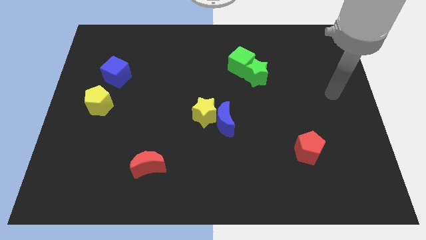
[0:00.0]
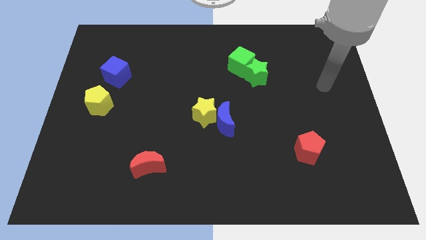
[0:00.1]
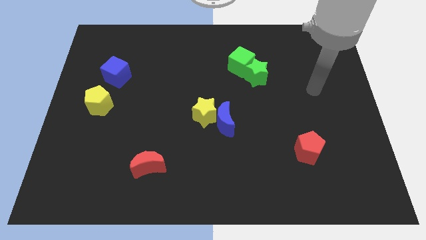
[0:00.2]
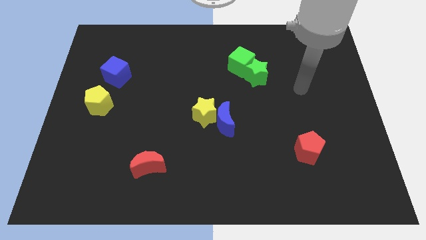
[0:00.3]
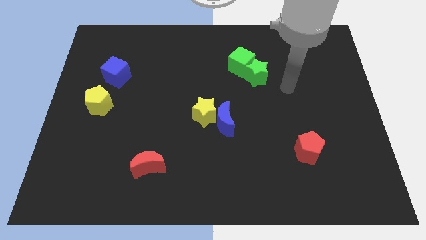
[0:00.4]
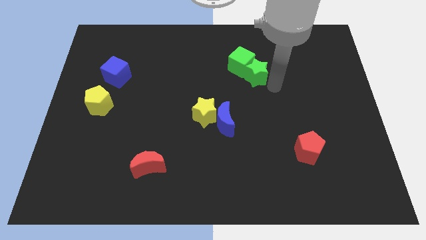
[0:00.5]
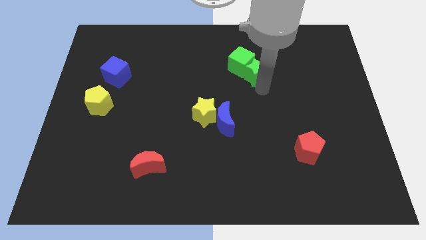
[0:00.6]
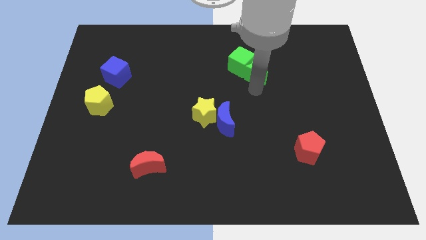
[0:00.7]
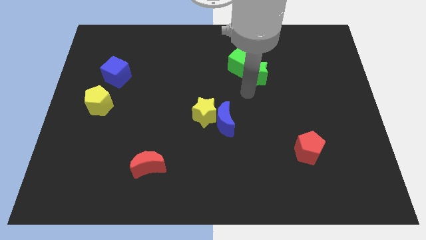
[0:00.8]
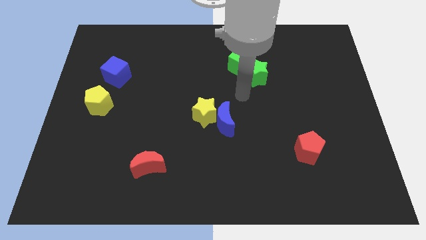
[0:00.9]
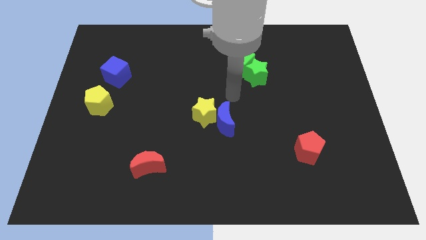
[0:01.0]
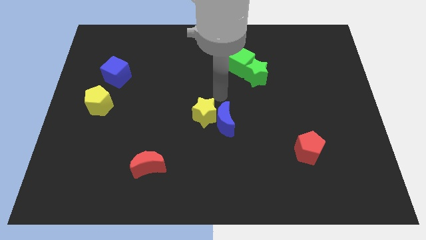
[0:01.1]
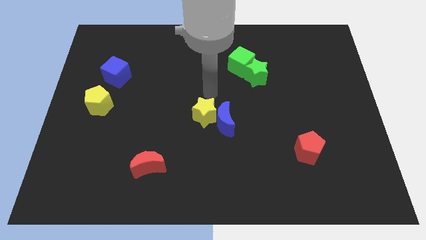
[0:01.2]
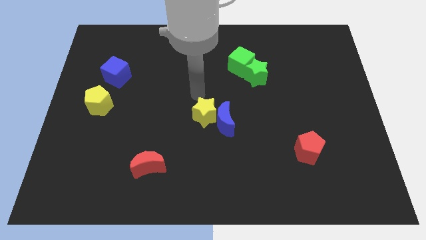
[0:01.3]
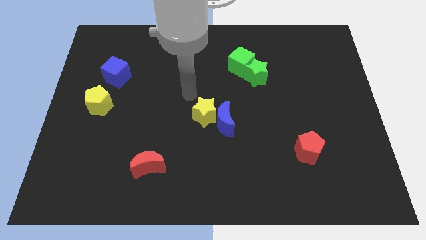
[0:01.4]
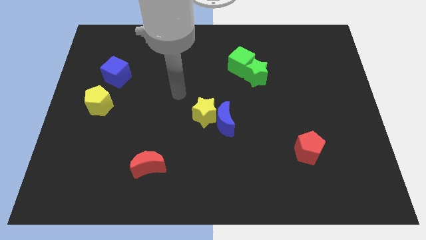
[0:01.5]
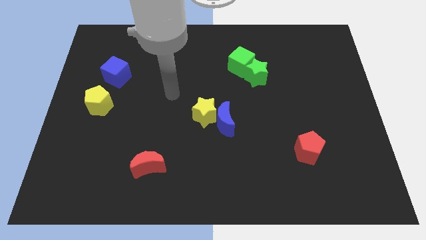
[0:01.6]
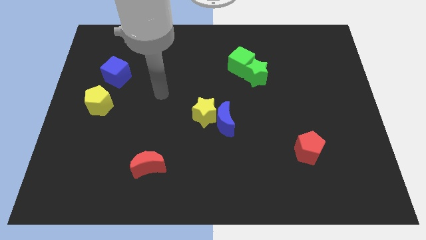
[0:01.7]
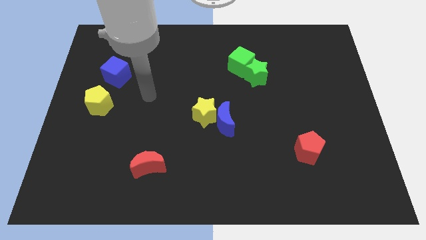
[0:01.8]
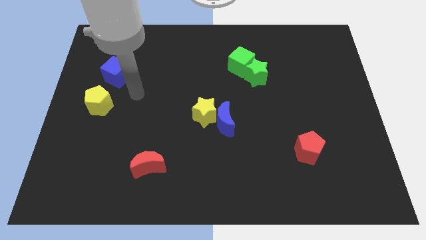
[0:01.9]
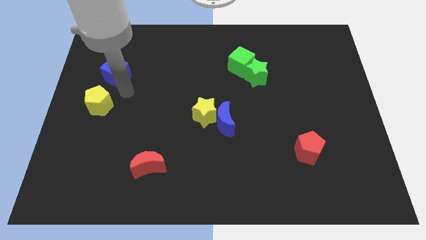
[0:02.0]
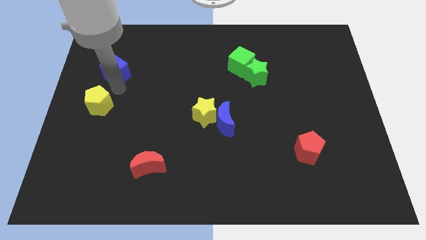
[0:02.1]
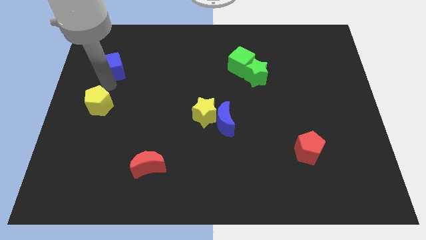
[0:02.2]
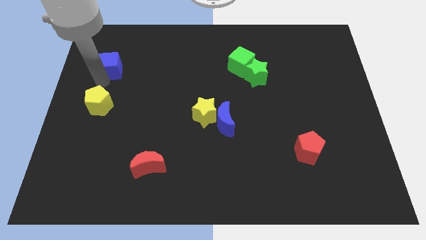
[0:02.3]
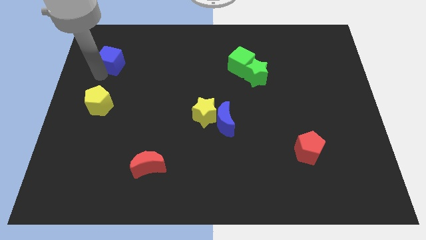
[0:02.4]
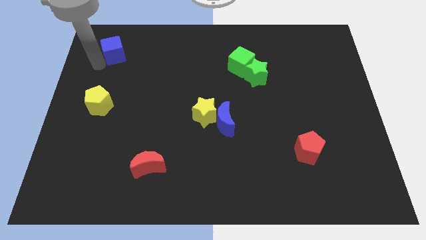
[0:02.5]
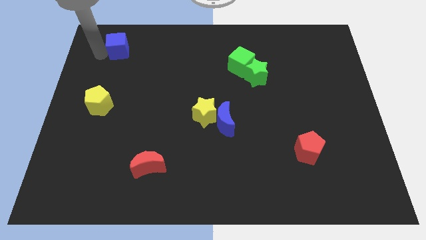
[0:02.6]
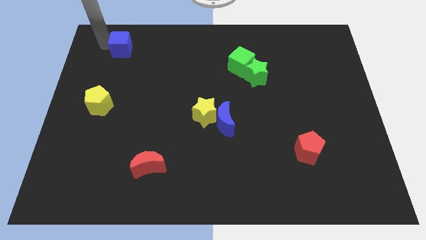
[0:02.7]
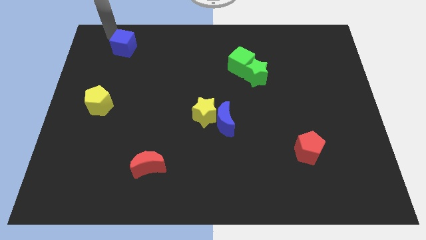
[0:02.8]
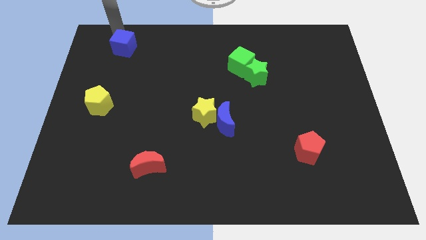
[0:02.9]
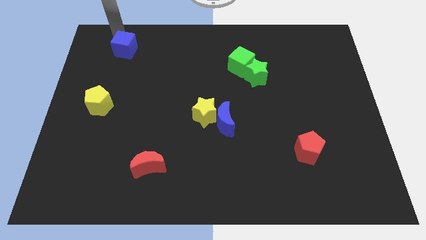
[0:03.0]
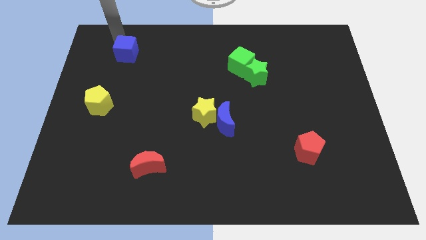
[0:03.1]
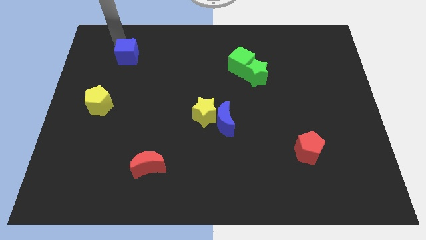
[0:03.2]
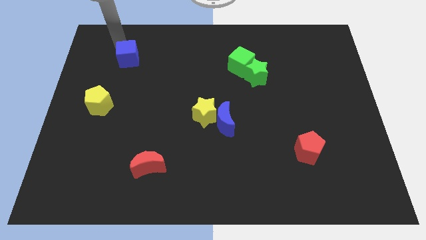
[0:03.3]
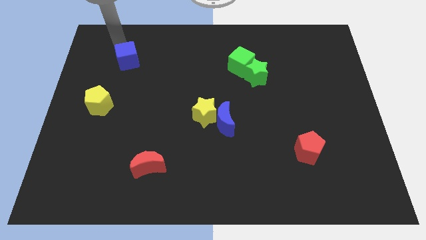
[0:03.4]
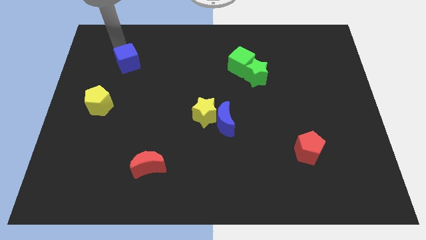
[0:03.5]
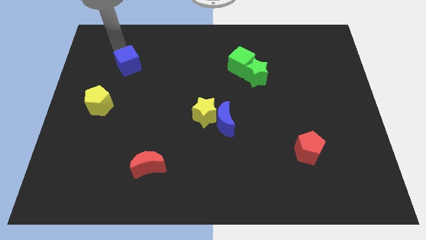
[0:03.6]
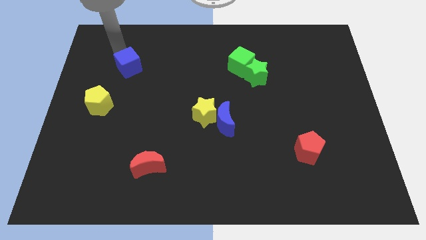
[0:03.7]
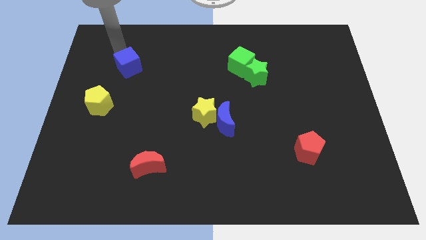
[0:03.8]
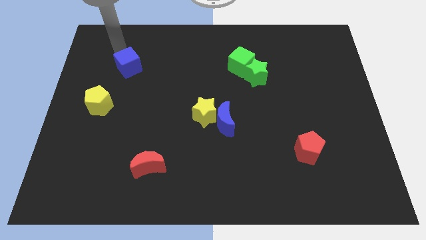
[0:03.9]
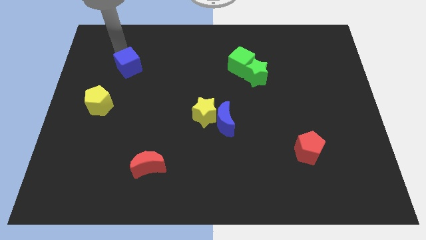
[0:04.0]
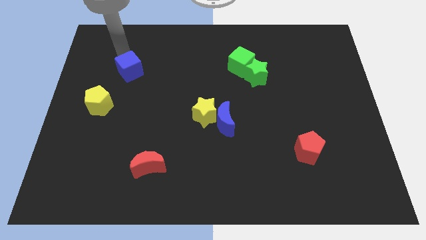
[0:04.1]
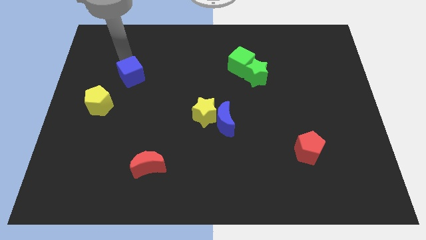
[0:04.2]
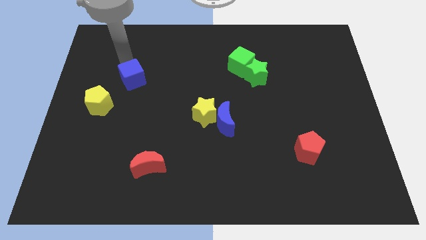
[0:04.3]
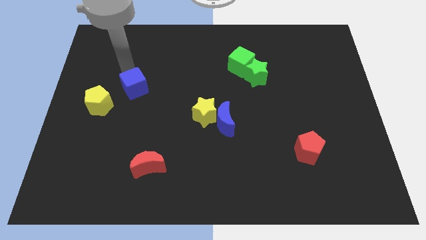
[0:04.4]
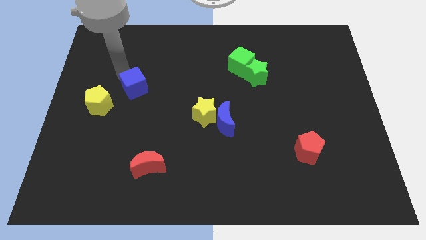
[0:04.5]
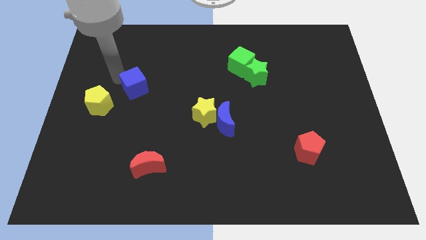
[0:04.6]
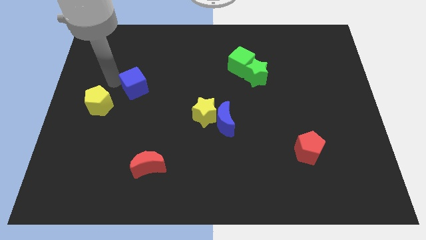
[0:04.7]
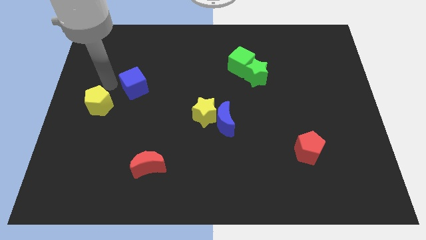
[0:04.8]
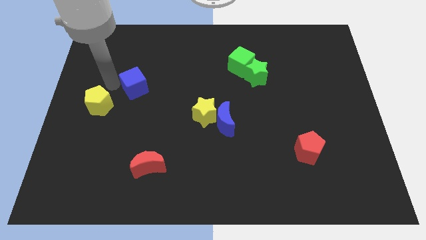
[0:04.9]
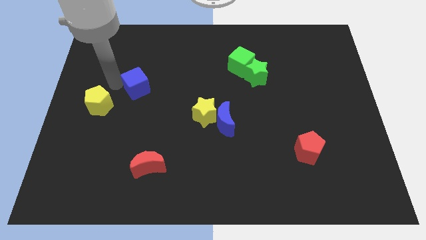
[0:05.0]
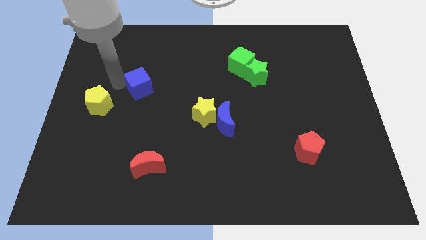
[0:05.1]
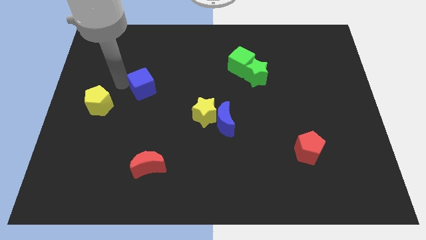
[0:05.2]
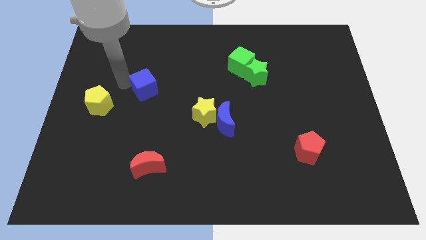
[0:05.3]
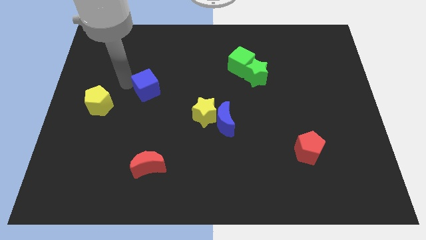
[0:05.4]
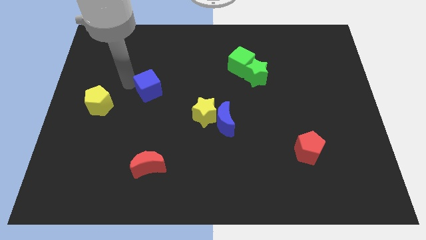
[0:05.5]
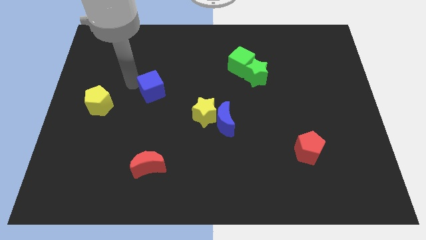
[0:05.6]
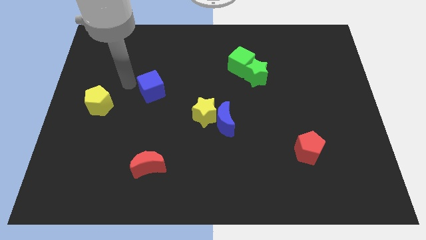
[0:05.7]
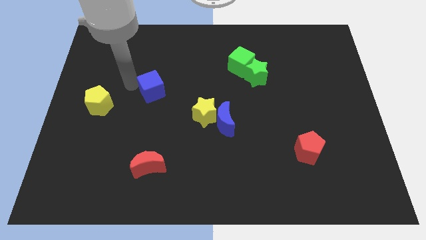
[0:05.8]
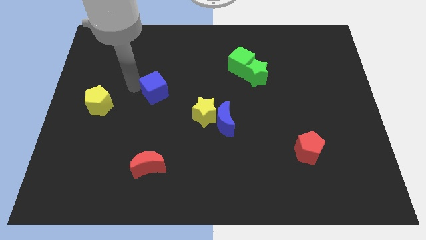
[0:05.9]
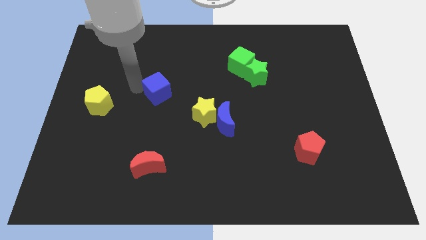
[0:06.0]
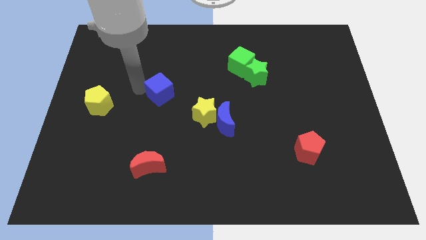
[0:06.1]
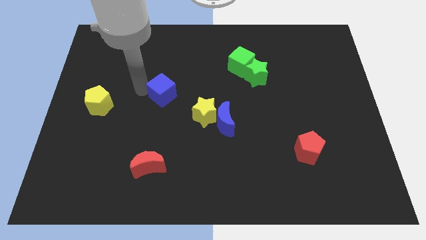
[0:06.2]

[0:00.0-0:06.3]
slide the blue cube to the top left of the yellow star
